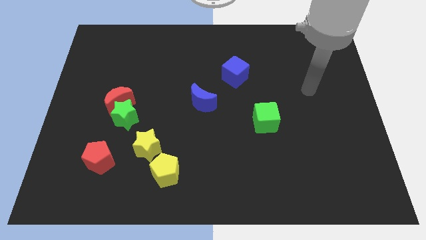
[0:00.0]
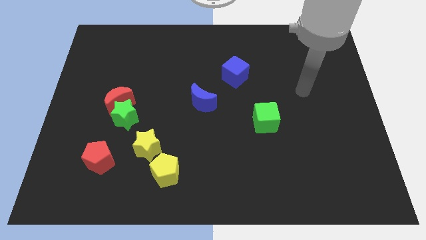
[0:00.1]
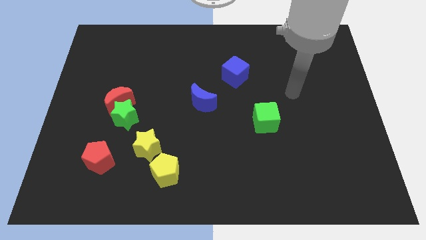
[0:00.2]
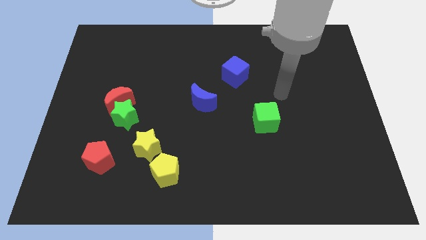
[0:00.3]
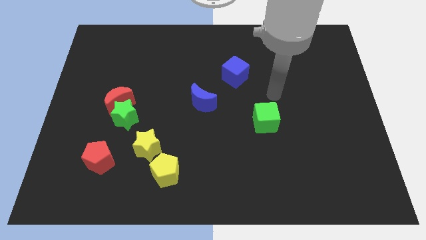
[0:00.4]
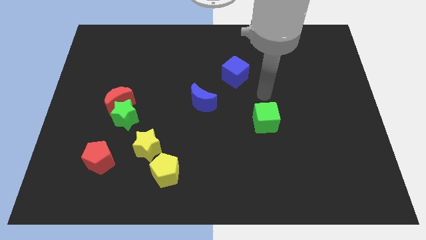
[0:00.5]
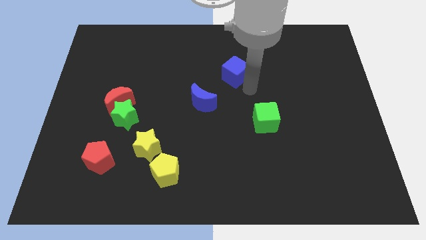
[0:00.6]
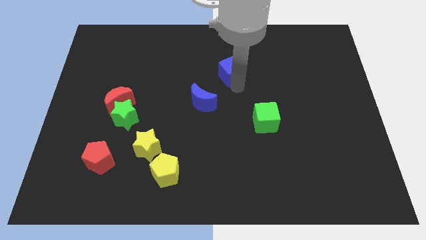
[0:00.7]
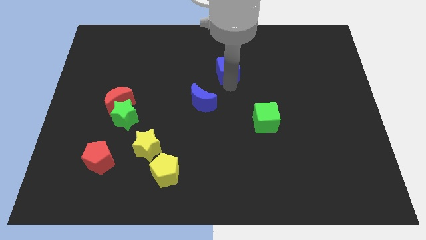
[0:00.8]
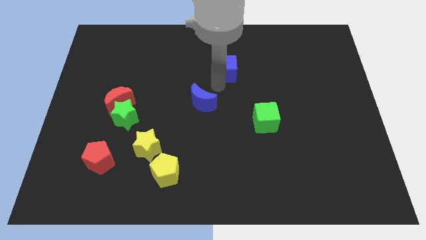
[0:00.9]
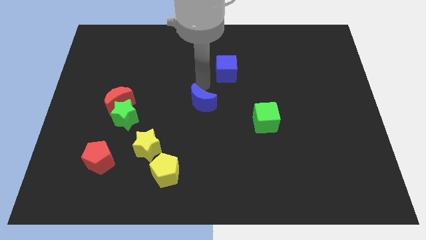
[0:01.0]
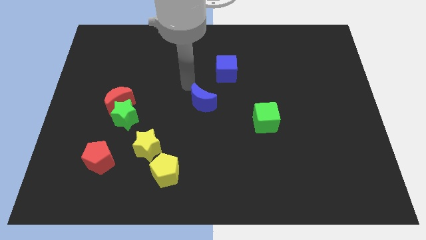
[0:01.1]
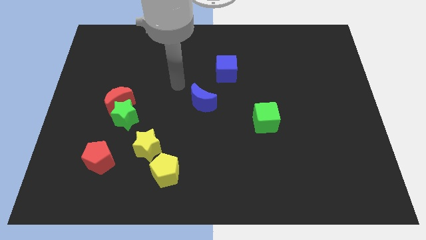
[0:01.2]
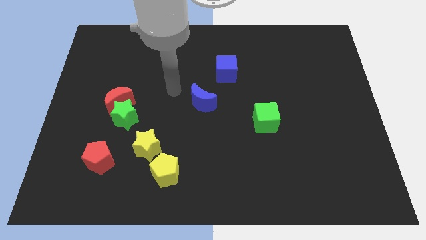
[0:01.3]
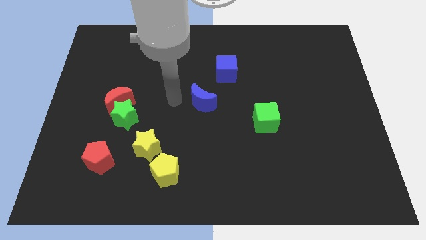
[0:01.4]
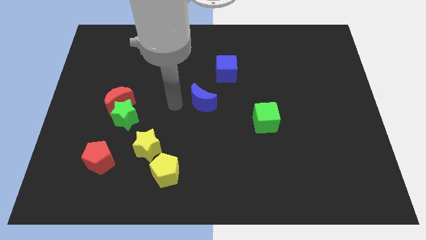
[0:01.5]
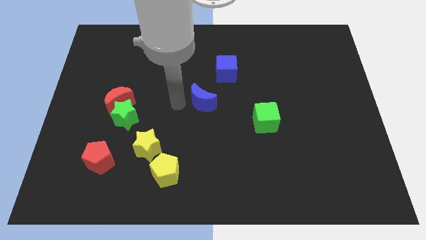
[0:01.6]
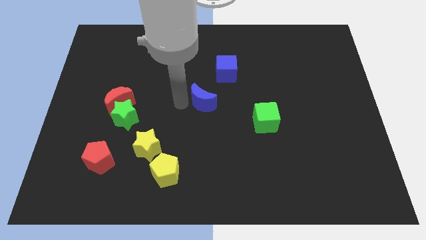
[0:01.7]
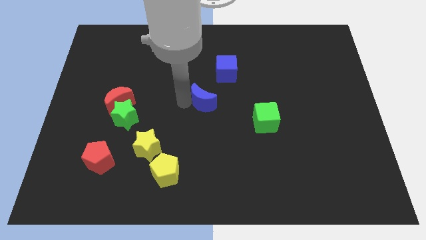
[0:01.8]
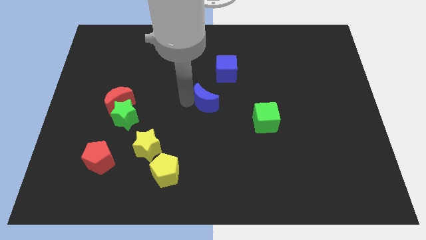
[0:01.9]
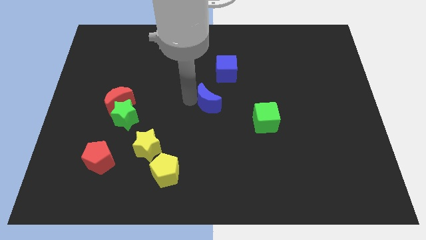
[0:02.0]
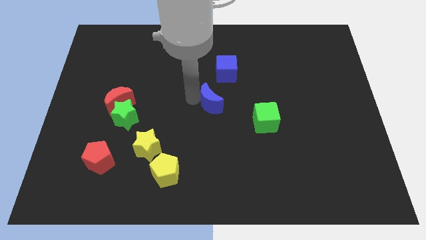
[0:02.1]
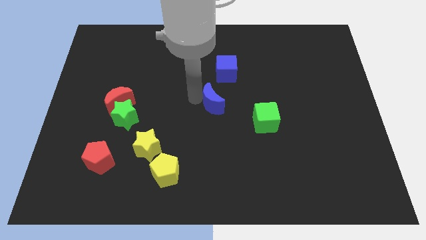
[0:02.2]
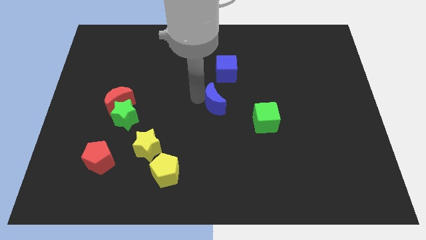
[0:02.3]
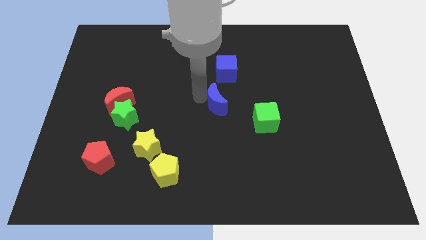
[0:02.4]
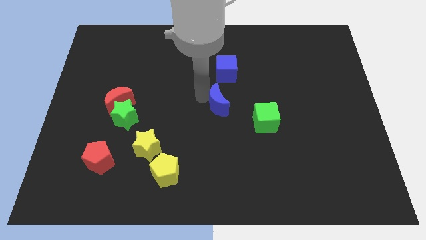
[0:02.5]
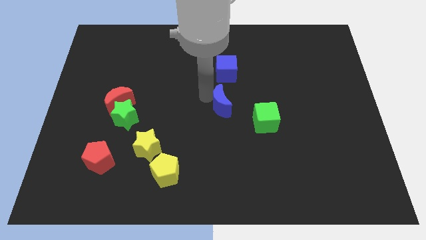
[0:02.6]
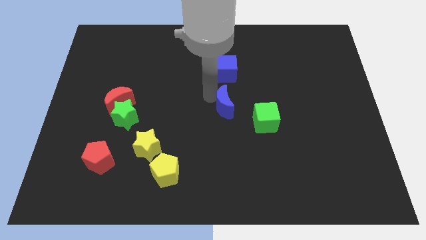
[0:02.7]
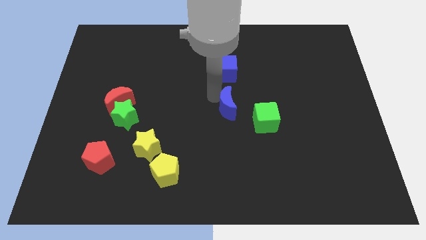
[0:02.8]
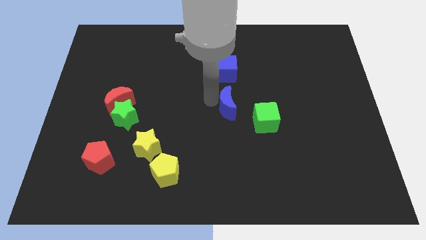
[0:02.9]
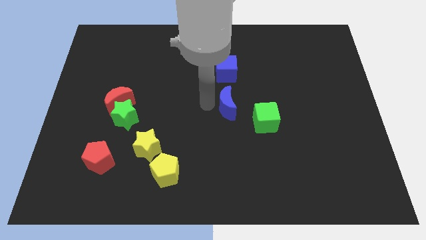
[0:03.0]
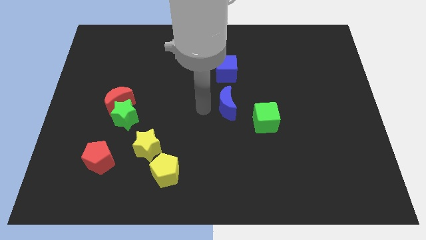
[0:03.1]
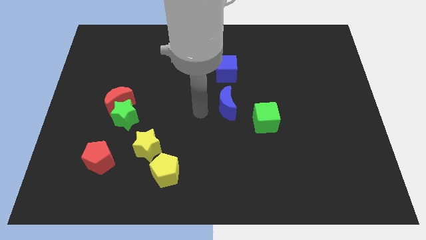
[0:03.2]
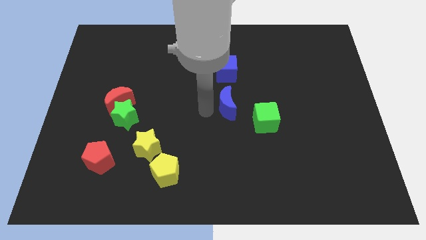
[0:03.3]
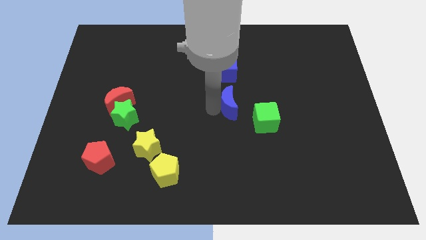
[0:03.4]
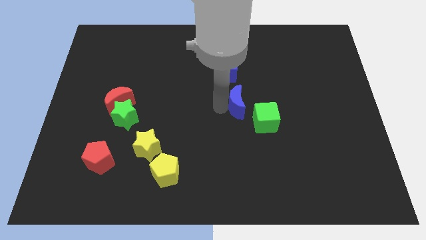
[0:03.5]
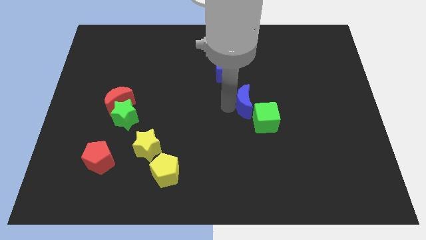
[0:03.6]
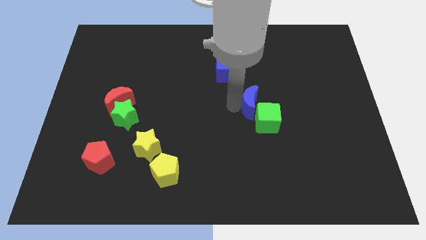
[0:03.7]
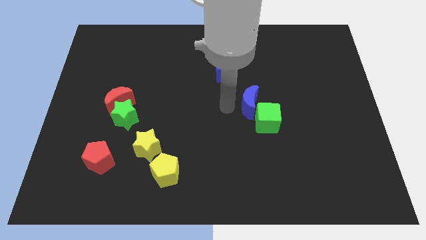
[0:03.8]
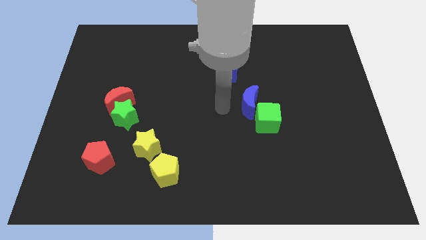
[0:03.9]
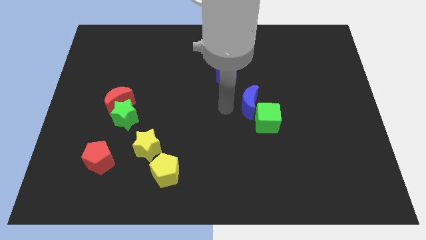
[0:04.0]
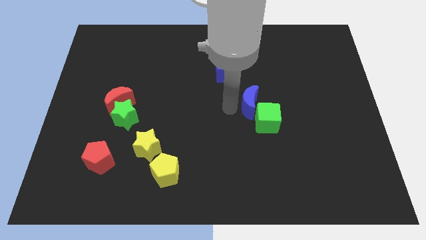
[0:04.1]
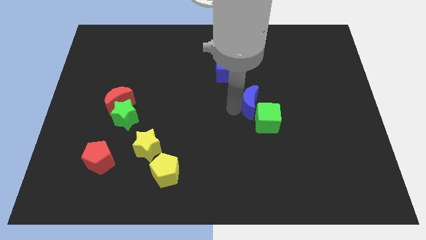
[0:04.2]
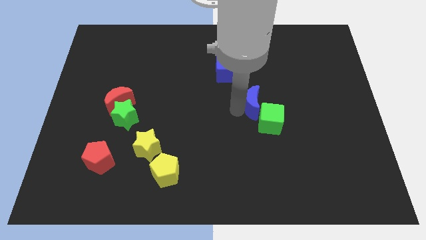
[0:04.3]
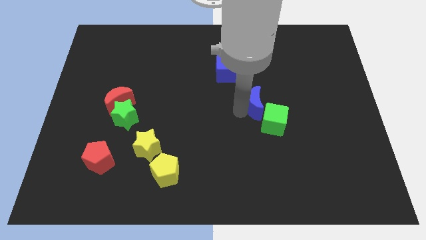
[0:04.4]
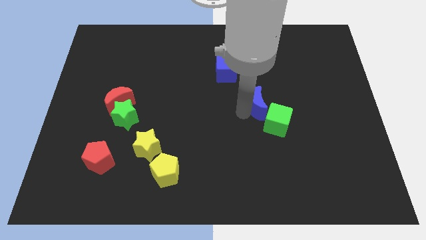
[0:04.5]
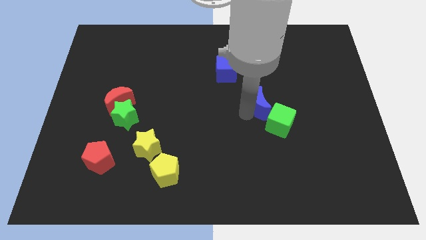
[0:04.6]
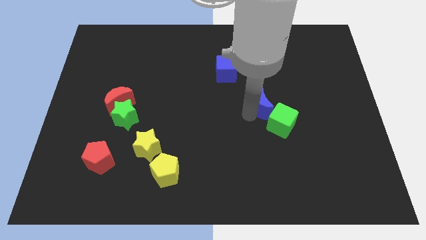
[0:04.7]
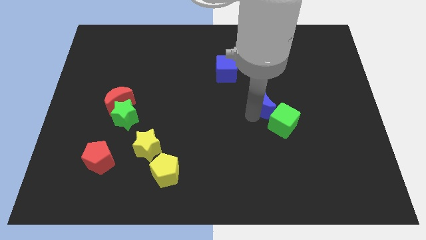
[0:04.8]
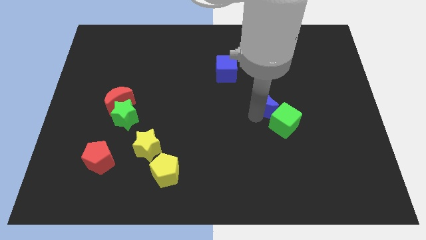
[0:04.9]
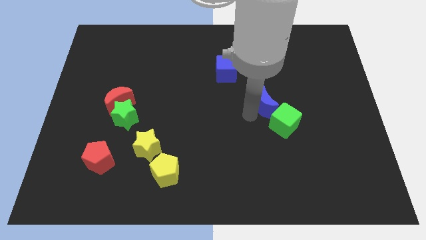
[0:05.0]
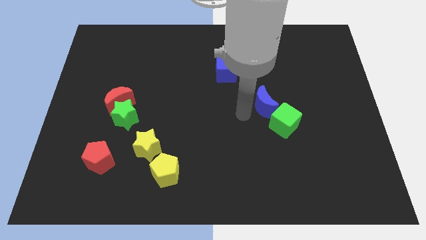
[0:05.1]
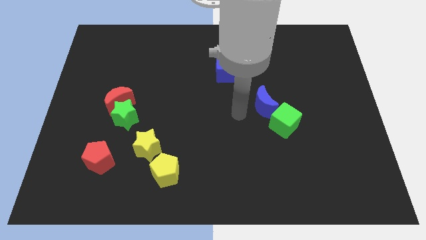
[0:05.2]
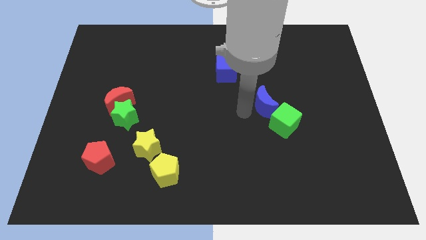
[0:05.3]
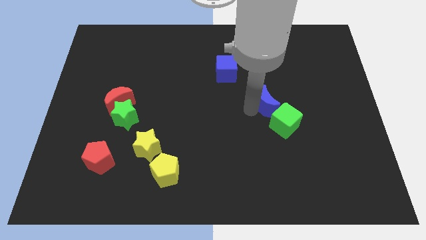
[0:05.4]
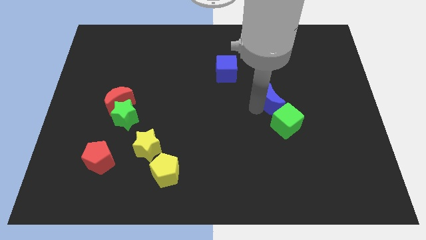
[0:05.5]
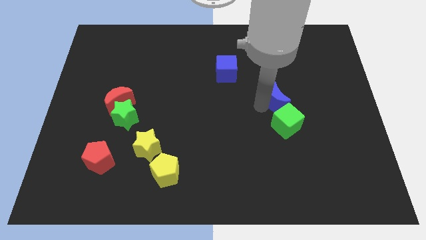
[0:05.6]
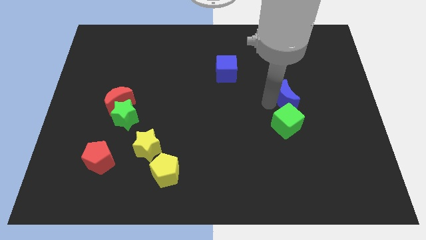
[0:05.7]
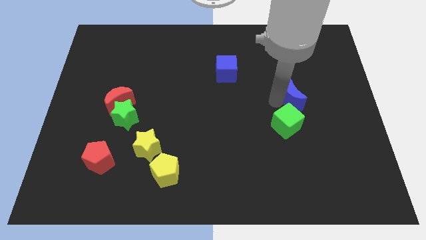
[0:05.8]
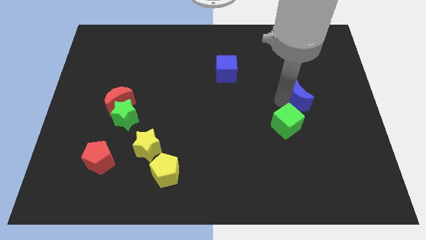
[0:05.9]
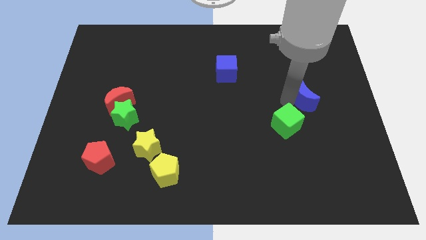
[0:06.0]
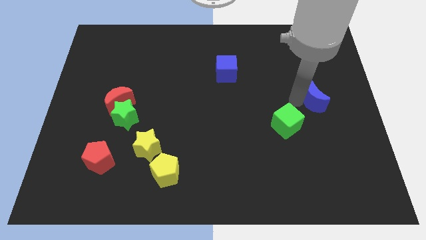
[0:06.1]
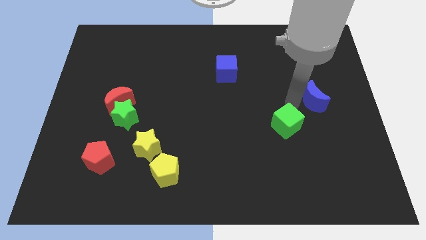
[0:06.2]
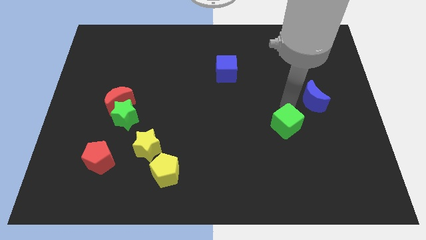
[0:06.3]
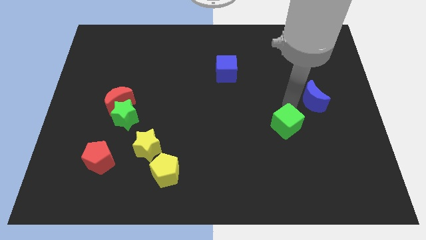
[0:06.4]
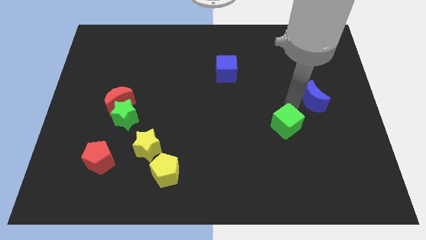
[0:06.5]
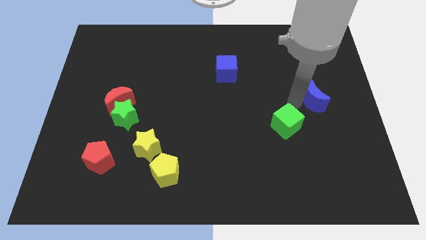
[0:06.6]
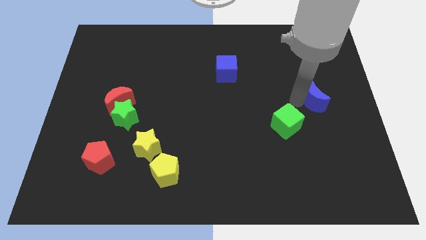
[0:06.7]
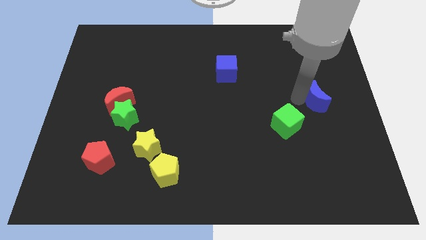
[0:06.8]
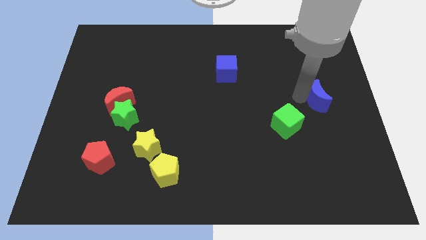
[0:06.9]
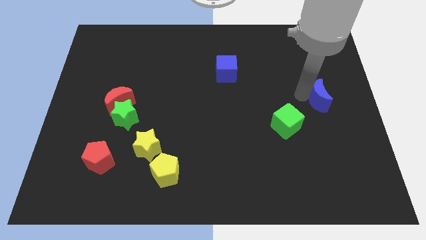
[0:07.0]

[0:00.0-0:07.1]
move the blue moon to the right side
